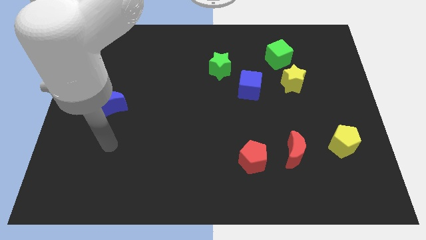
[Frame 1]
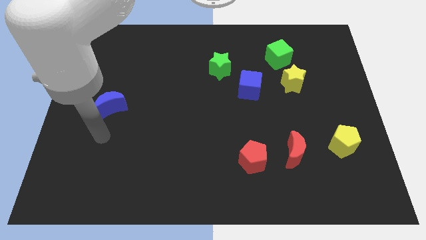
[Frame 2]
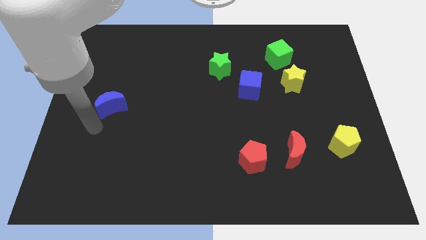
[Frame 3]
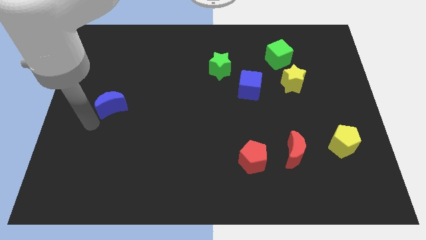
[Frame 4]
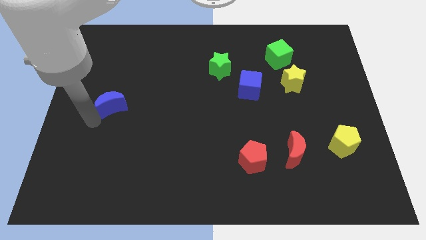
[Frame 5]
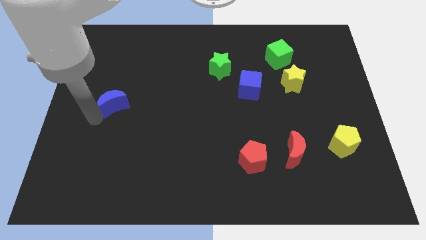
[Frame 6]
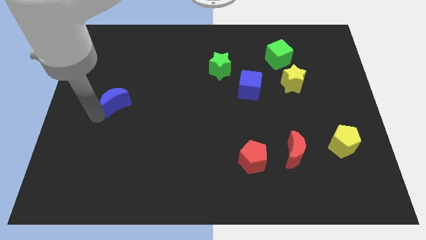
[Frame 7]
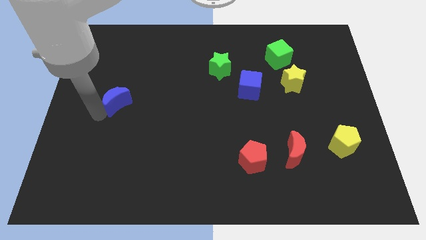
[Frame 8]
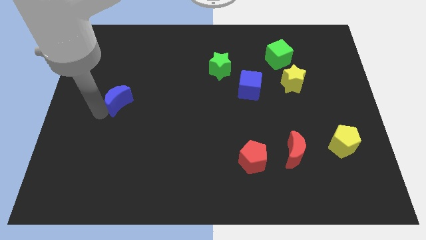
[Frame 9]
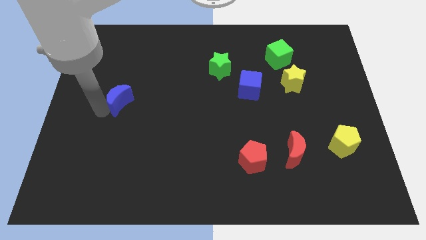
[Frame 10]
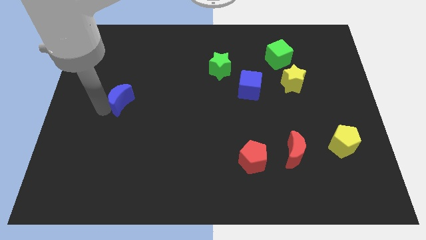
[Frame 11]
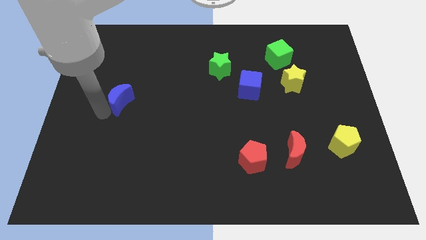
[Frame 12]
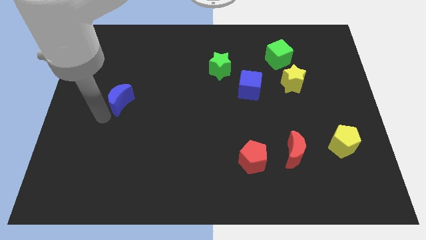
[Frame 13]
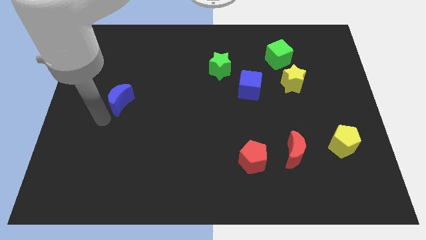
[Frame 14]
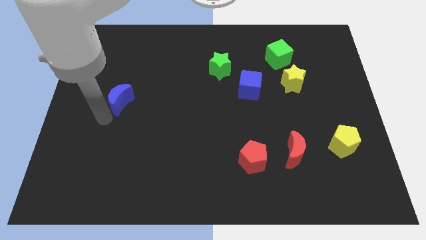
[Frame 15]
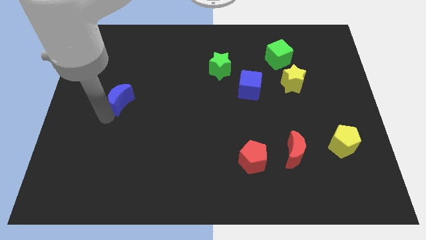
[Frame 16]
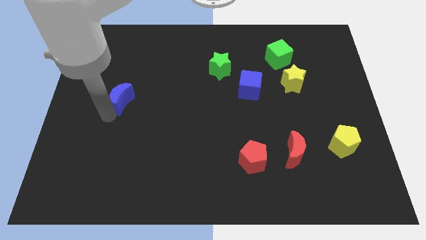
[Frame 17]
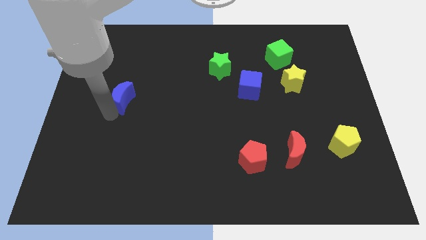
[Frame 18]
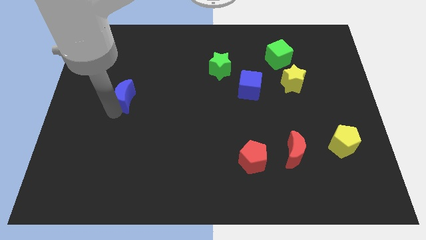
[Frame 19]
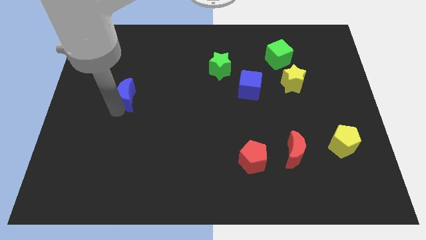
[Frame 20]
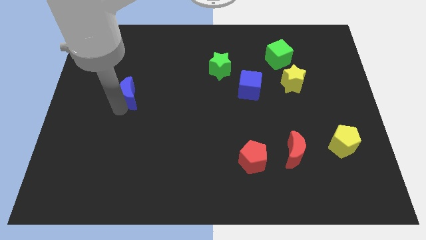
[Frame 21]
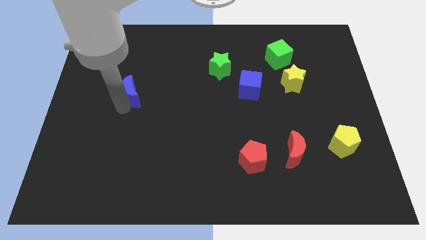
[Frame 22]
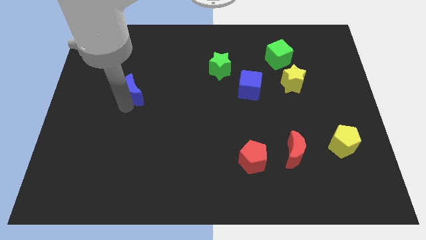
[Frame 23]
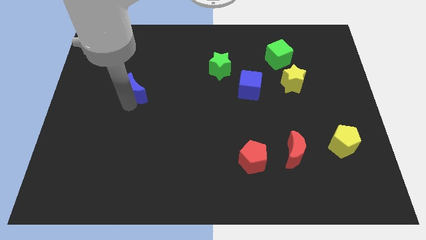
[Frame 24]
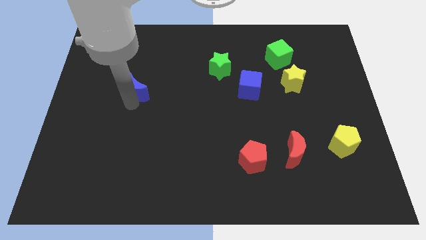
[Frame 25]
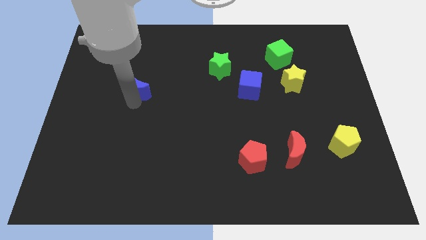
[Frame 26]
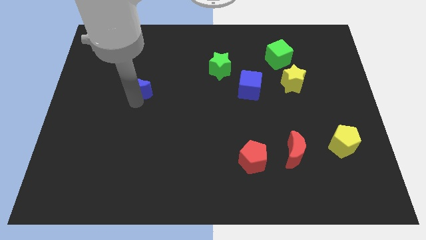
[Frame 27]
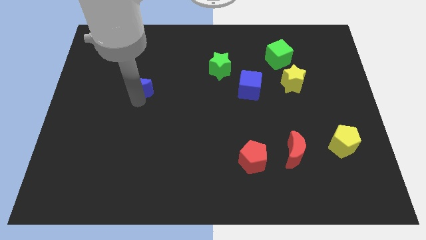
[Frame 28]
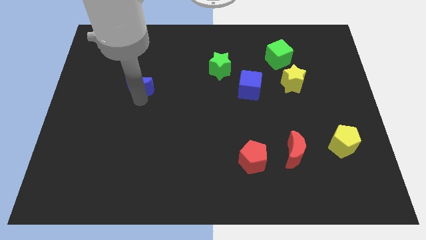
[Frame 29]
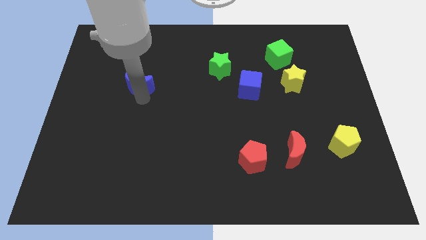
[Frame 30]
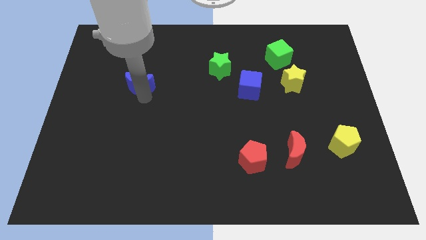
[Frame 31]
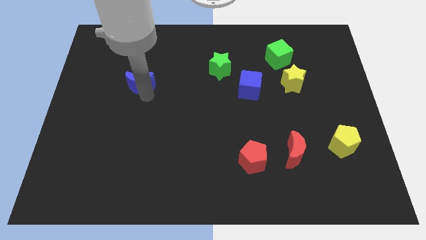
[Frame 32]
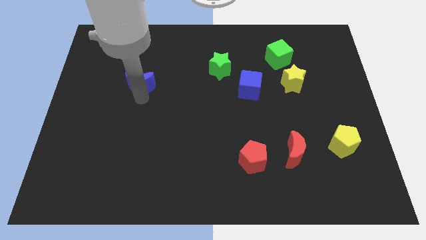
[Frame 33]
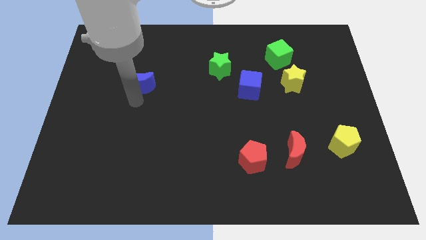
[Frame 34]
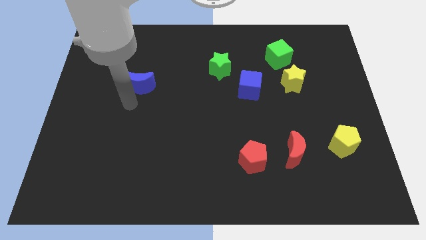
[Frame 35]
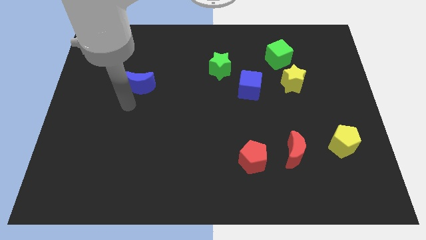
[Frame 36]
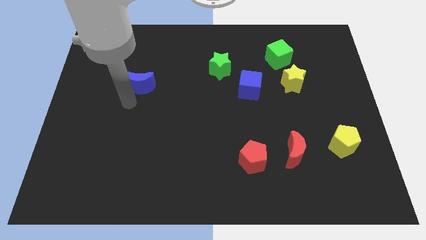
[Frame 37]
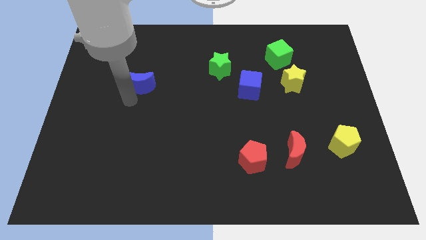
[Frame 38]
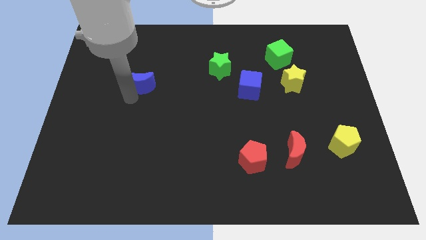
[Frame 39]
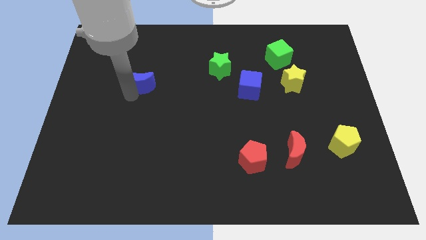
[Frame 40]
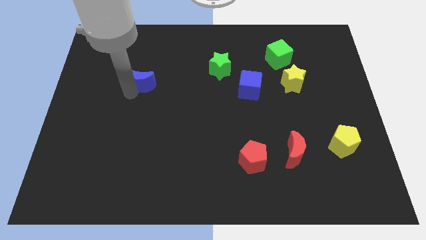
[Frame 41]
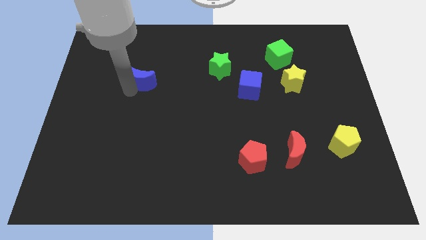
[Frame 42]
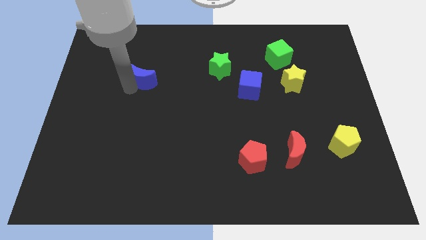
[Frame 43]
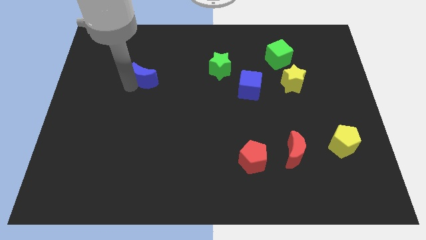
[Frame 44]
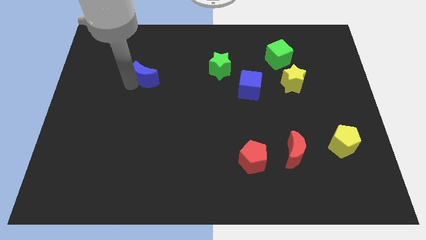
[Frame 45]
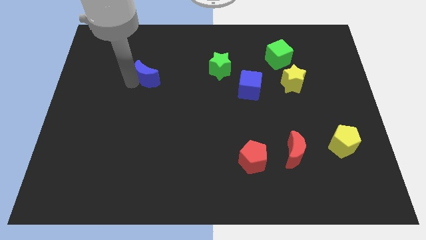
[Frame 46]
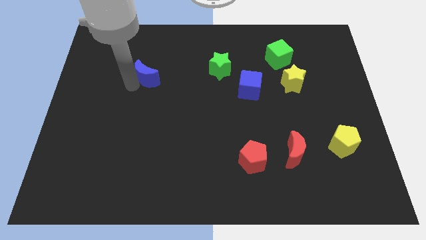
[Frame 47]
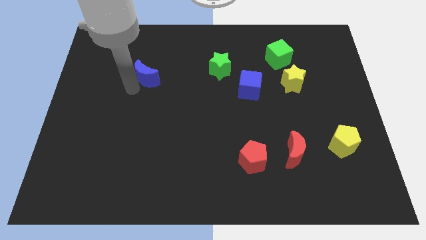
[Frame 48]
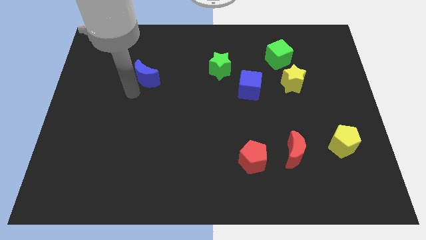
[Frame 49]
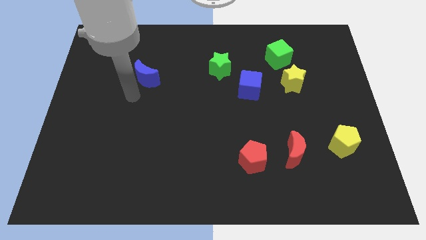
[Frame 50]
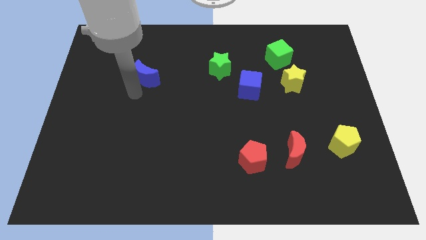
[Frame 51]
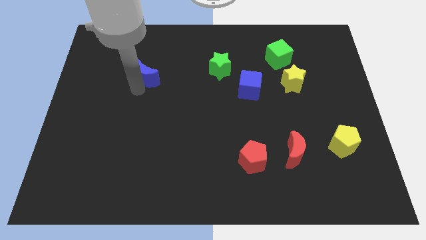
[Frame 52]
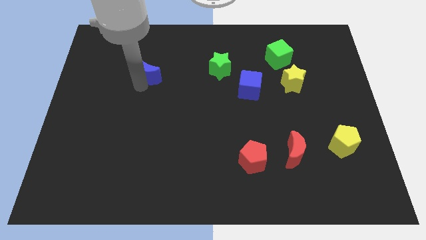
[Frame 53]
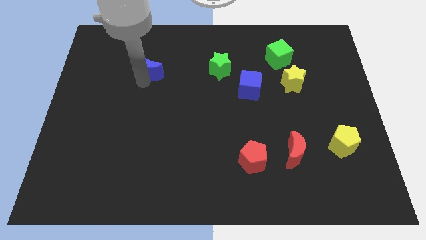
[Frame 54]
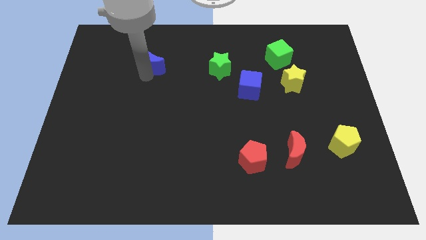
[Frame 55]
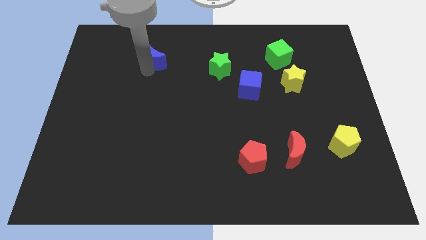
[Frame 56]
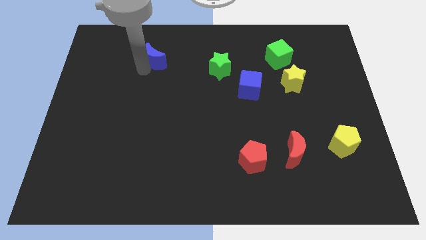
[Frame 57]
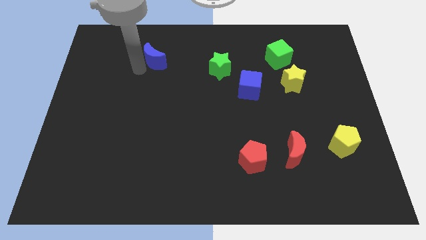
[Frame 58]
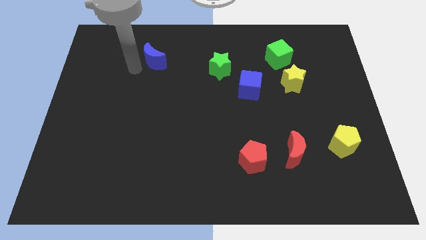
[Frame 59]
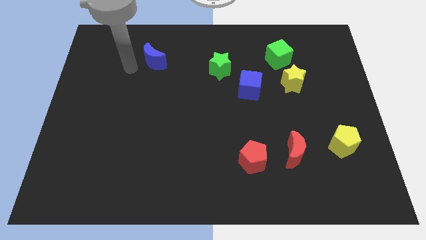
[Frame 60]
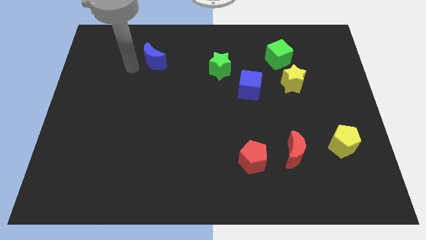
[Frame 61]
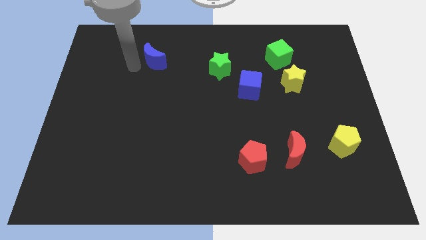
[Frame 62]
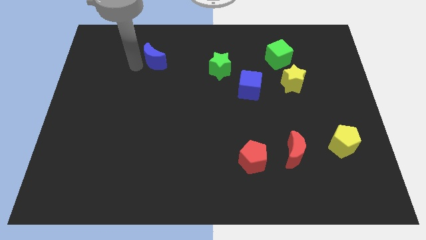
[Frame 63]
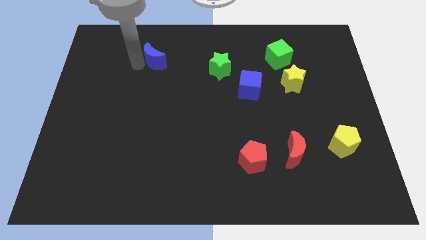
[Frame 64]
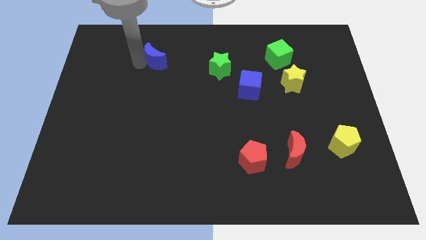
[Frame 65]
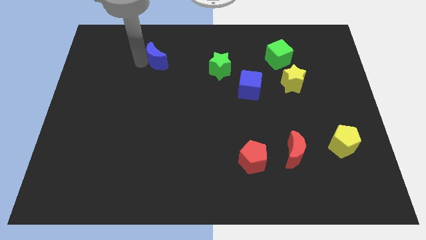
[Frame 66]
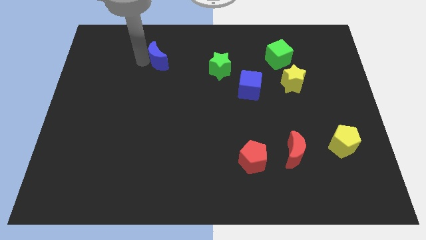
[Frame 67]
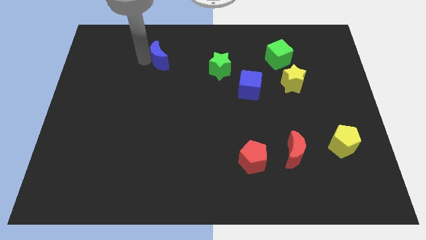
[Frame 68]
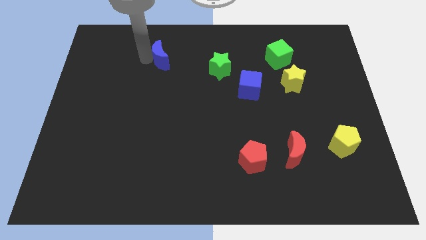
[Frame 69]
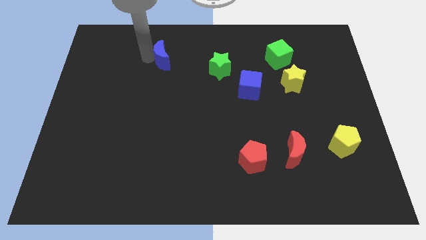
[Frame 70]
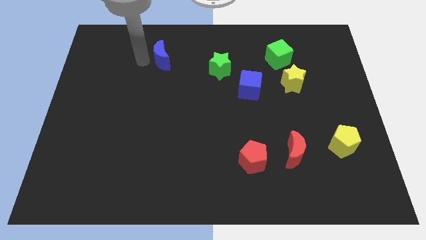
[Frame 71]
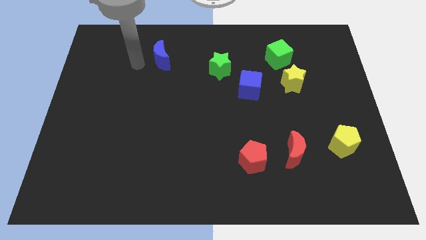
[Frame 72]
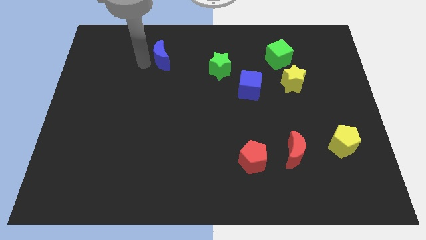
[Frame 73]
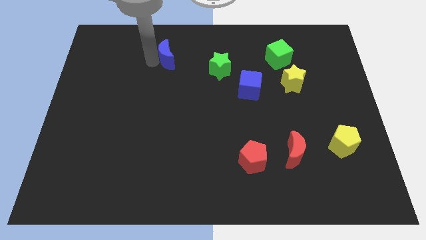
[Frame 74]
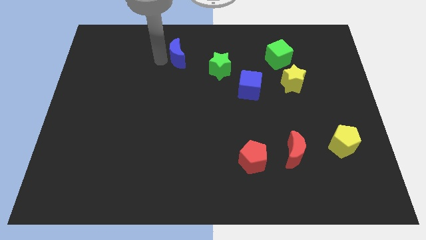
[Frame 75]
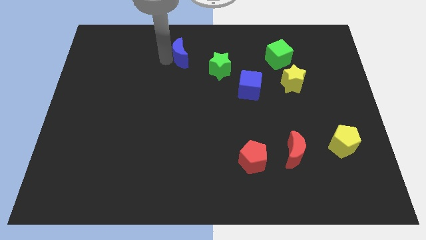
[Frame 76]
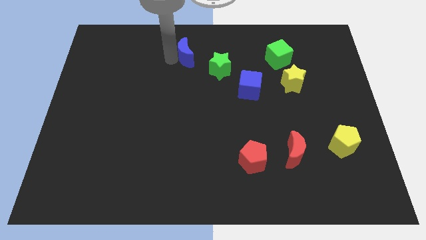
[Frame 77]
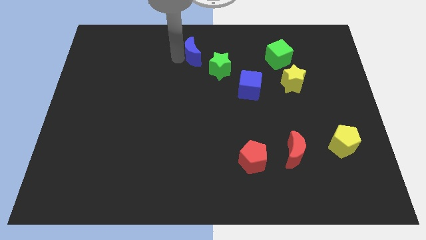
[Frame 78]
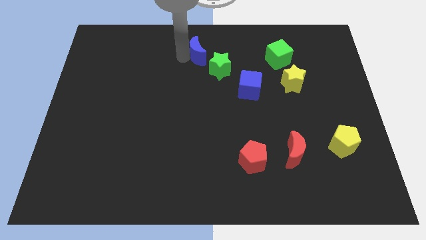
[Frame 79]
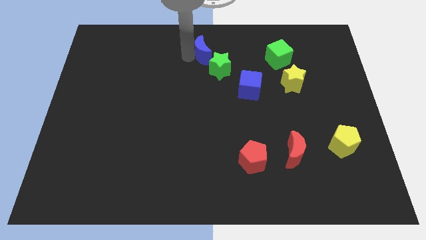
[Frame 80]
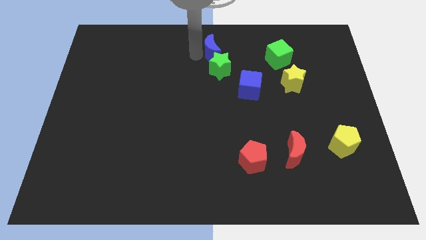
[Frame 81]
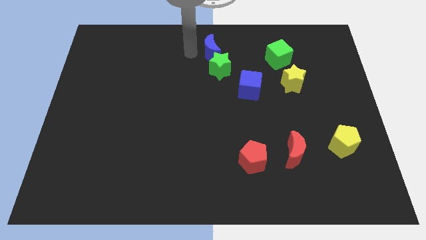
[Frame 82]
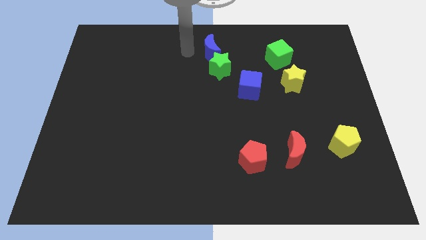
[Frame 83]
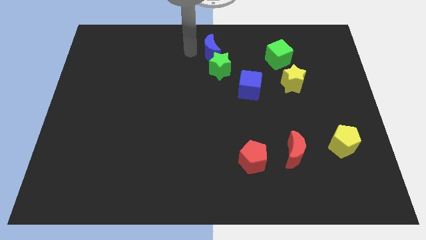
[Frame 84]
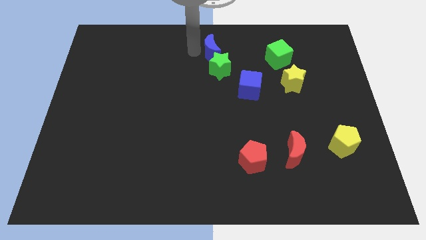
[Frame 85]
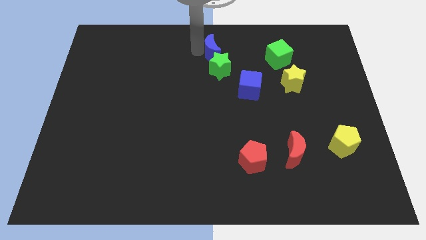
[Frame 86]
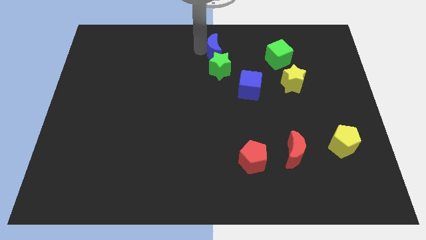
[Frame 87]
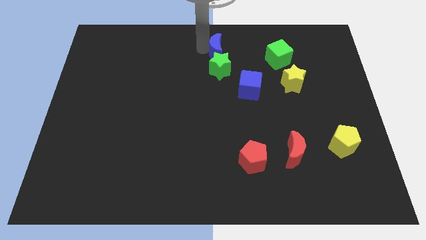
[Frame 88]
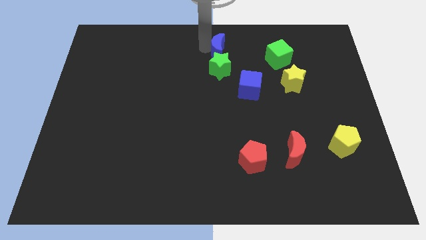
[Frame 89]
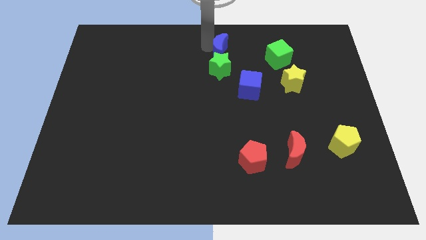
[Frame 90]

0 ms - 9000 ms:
put the blue moon to the top right of the green star
